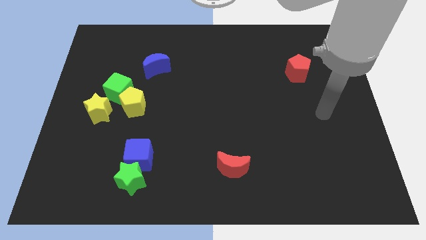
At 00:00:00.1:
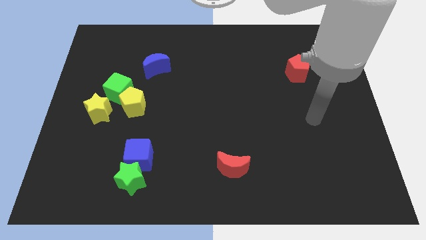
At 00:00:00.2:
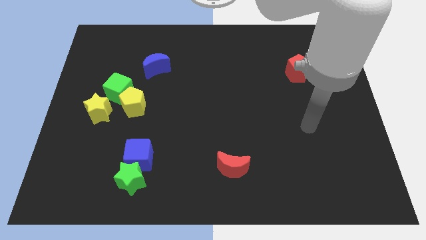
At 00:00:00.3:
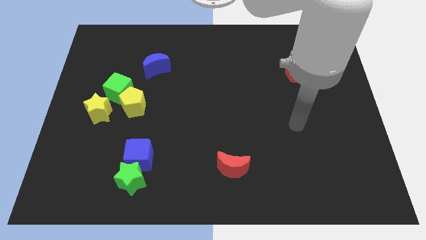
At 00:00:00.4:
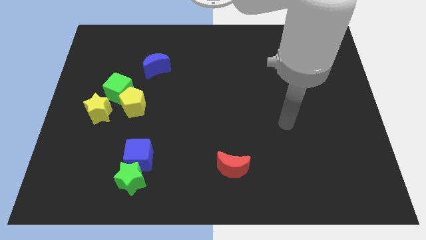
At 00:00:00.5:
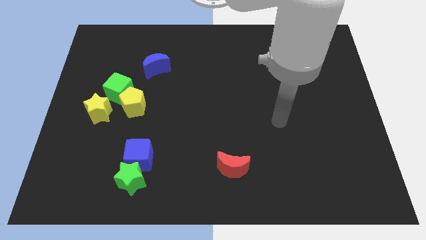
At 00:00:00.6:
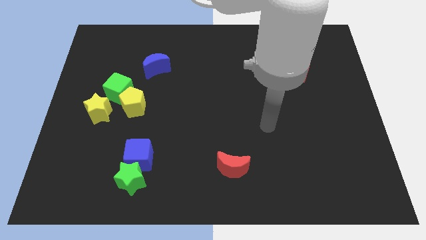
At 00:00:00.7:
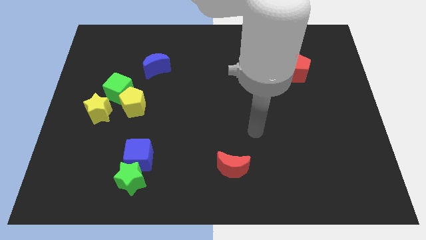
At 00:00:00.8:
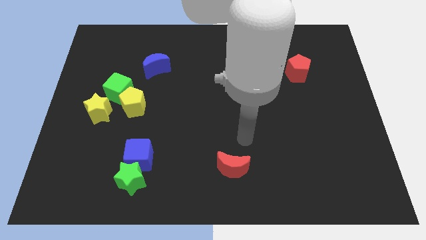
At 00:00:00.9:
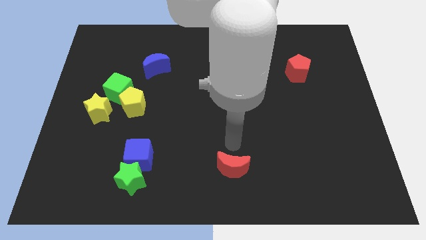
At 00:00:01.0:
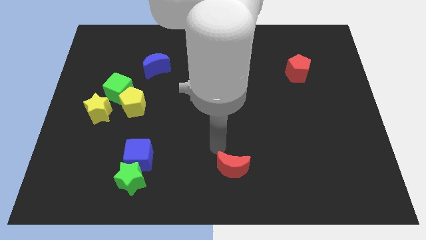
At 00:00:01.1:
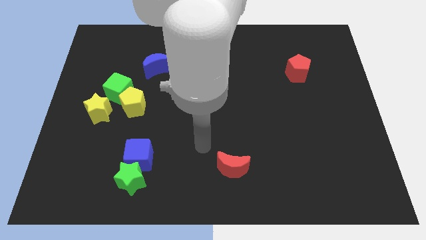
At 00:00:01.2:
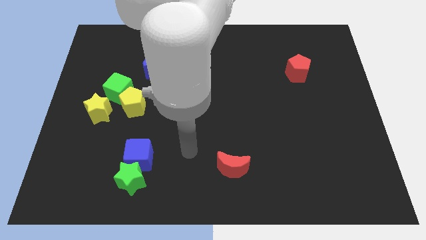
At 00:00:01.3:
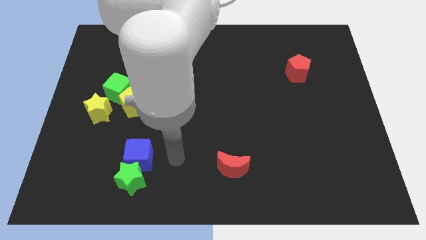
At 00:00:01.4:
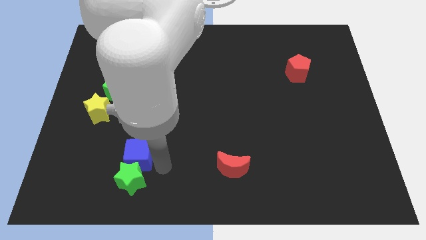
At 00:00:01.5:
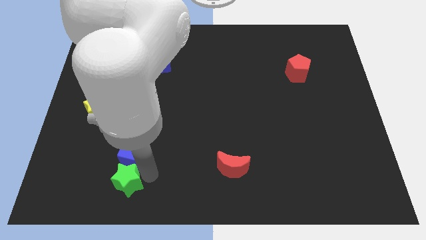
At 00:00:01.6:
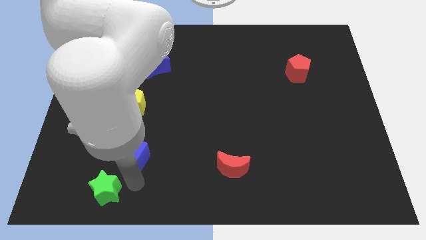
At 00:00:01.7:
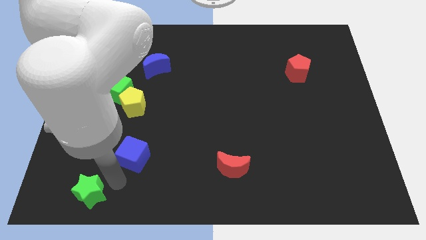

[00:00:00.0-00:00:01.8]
separate the blue cube from the green star

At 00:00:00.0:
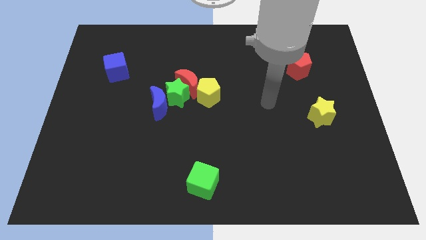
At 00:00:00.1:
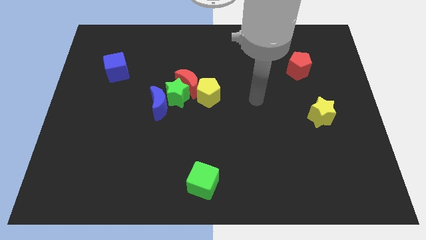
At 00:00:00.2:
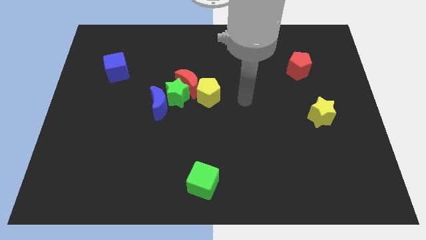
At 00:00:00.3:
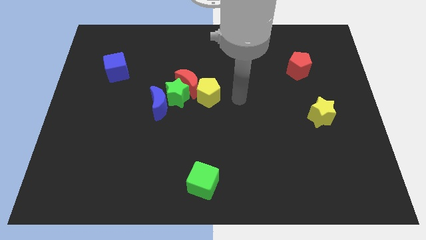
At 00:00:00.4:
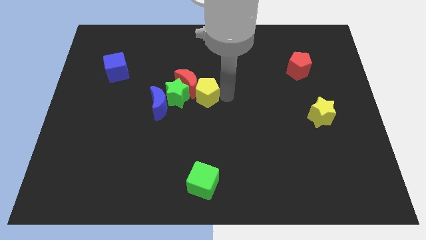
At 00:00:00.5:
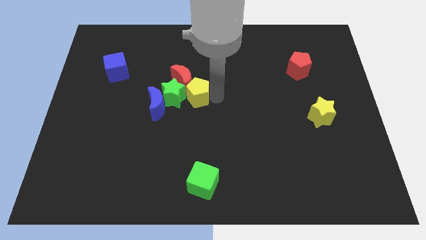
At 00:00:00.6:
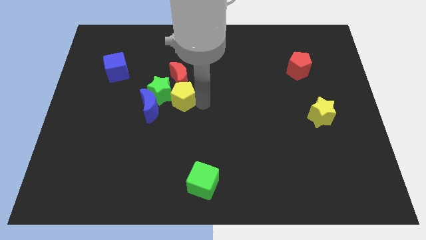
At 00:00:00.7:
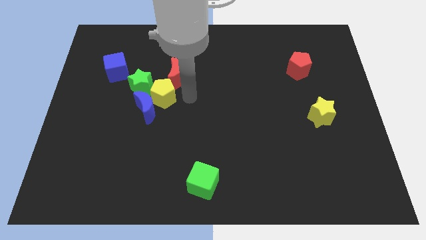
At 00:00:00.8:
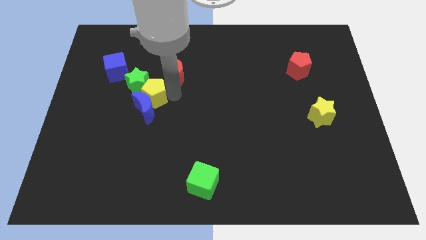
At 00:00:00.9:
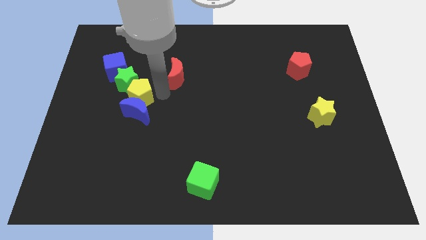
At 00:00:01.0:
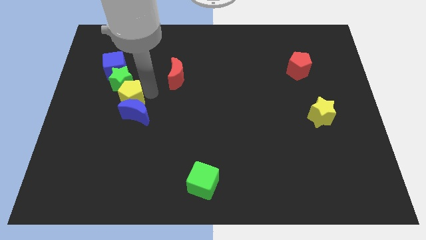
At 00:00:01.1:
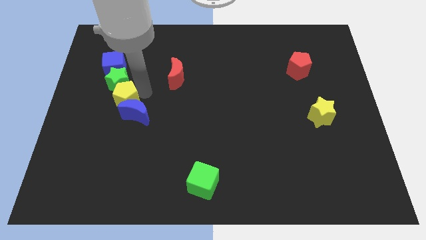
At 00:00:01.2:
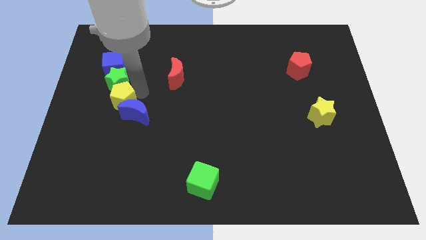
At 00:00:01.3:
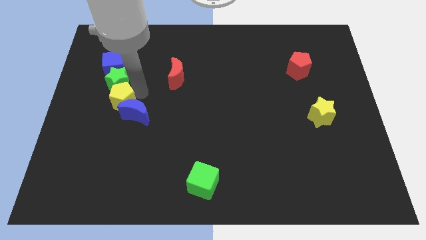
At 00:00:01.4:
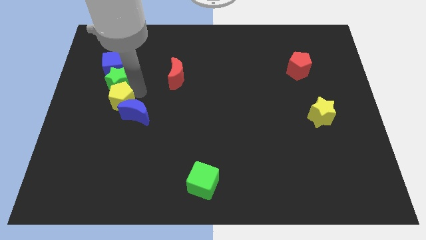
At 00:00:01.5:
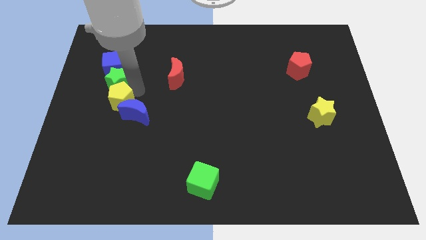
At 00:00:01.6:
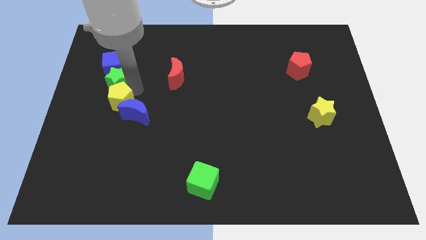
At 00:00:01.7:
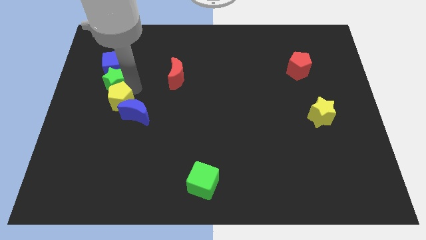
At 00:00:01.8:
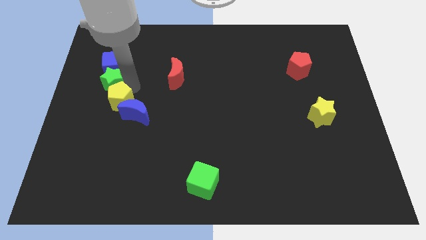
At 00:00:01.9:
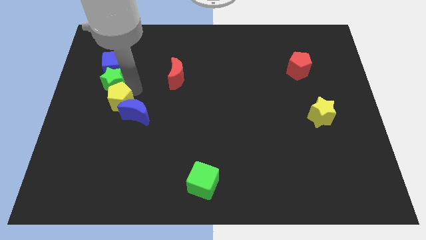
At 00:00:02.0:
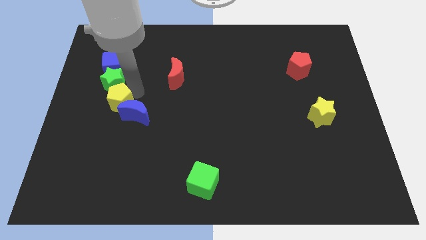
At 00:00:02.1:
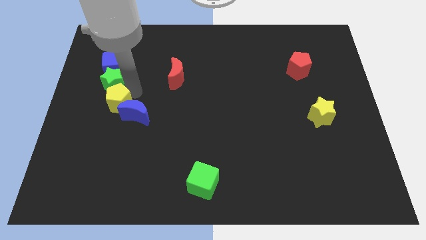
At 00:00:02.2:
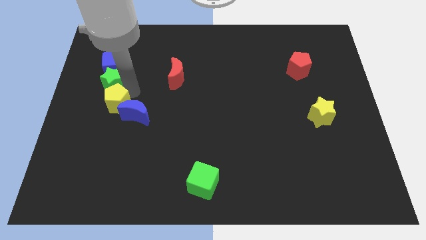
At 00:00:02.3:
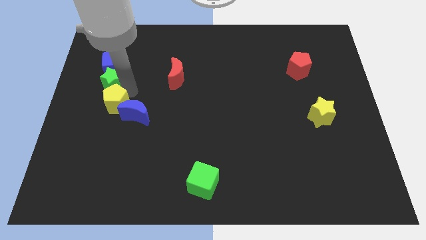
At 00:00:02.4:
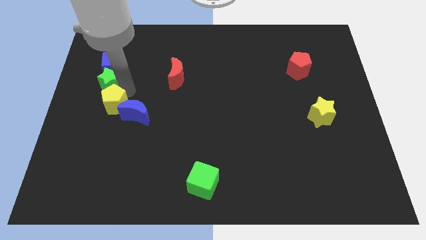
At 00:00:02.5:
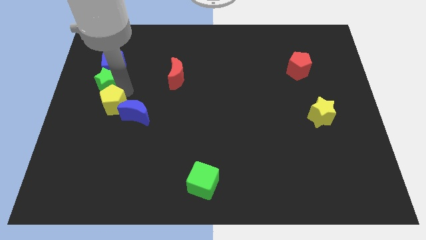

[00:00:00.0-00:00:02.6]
move the green star away from the group

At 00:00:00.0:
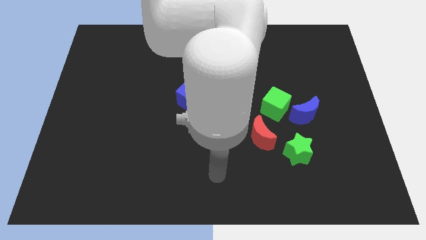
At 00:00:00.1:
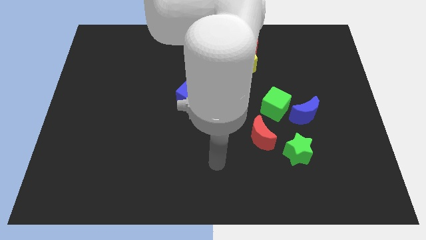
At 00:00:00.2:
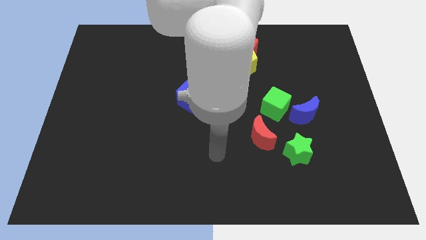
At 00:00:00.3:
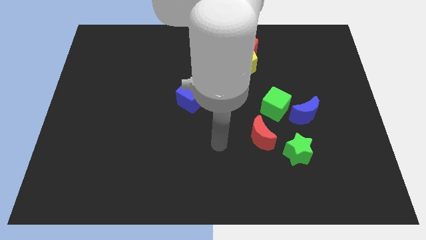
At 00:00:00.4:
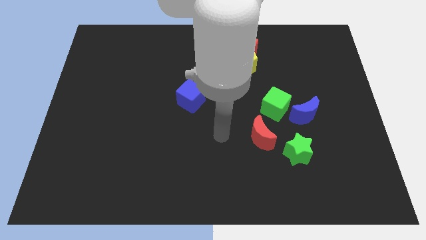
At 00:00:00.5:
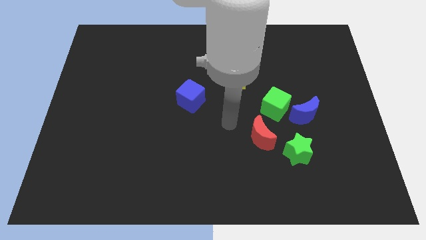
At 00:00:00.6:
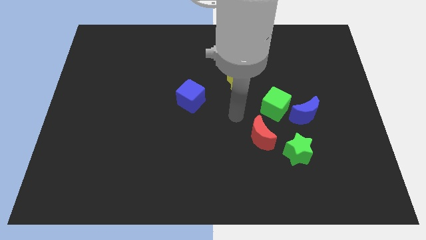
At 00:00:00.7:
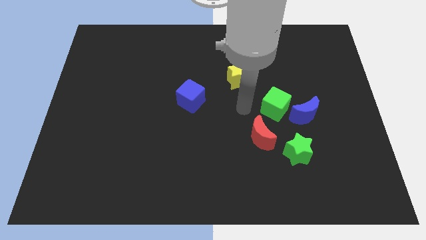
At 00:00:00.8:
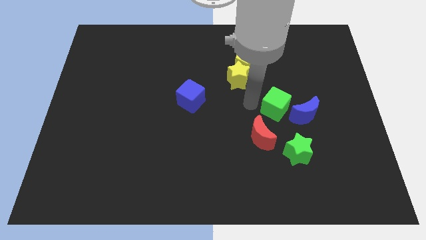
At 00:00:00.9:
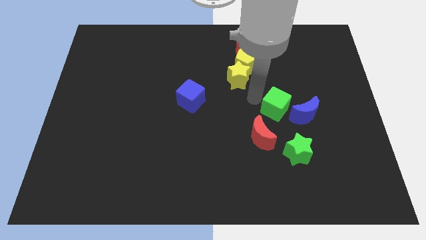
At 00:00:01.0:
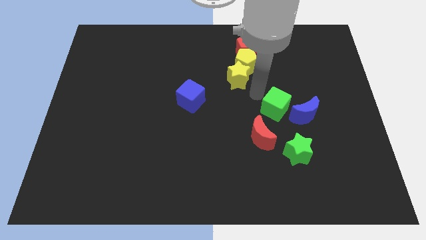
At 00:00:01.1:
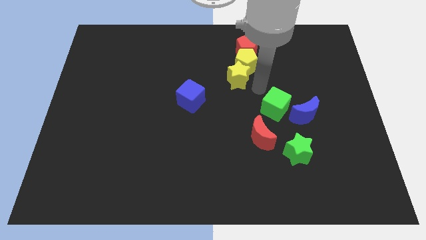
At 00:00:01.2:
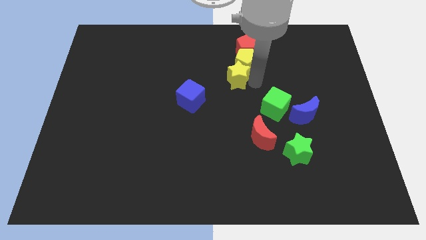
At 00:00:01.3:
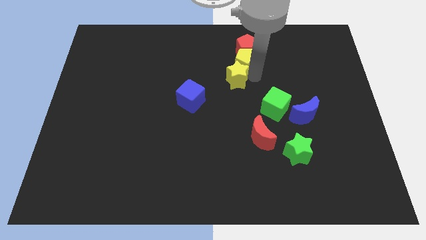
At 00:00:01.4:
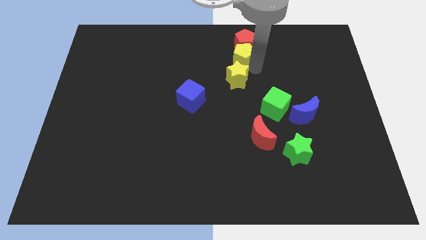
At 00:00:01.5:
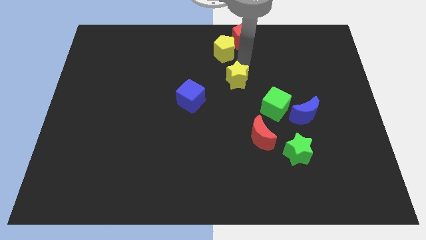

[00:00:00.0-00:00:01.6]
pull the yellow star apart from the yellow pentagon

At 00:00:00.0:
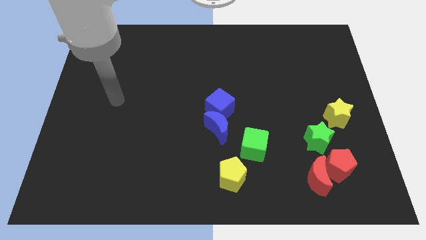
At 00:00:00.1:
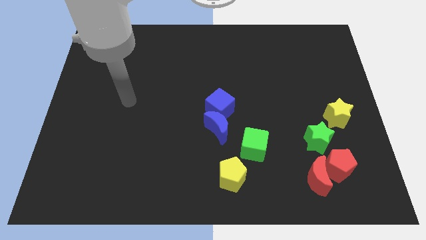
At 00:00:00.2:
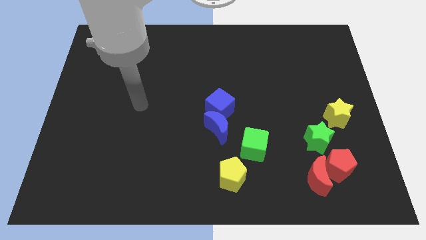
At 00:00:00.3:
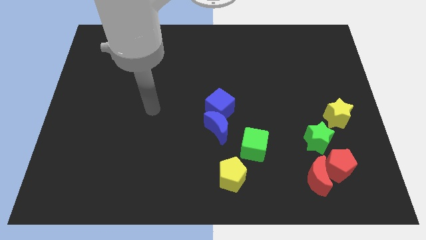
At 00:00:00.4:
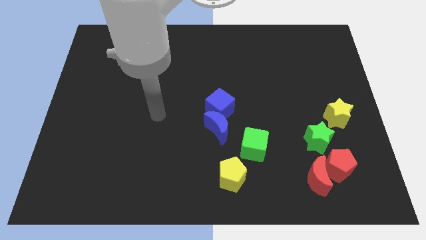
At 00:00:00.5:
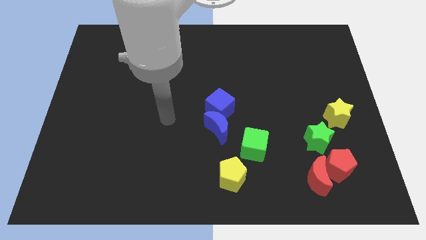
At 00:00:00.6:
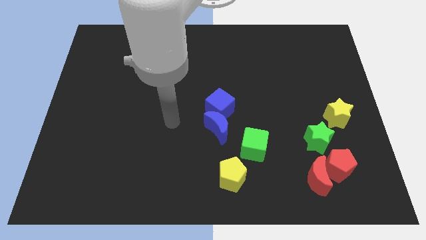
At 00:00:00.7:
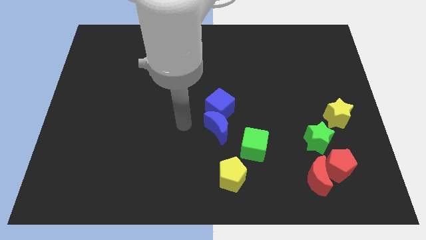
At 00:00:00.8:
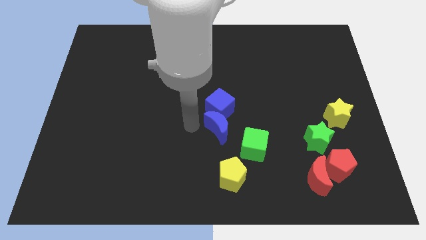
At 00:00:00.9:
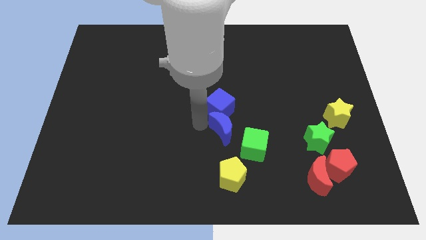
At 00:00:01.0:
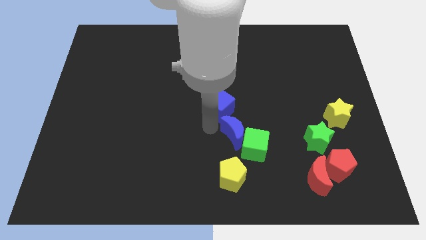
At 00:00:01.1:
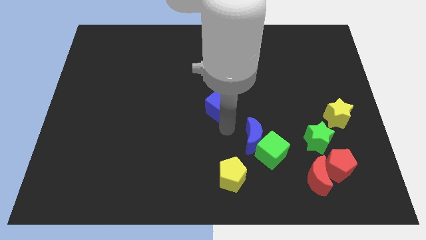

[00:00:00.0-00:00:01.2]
pull the blue cube apart from the blue moon

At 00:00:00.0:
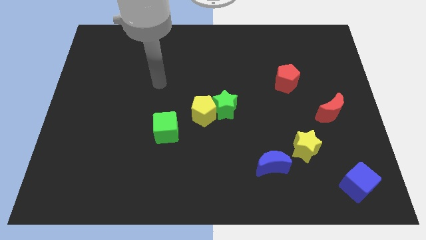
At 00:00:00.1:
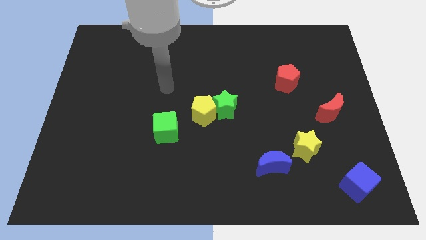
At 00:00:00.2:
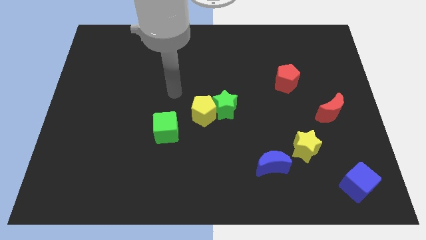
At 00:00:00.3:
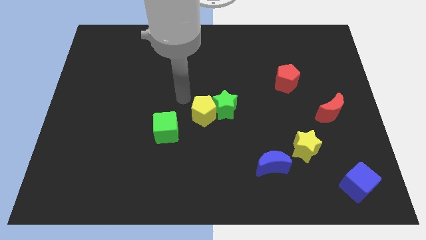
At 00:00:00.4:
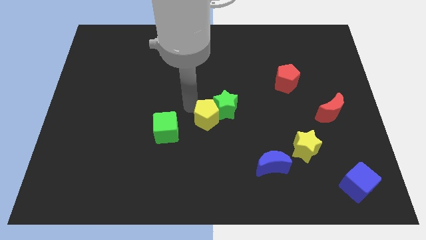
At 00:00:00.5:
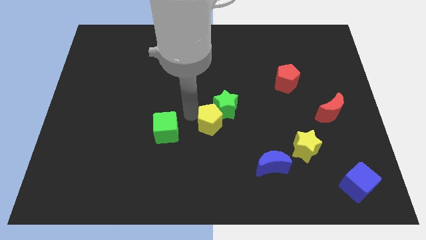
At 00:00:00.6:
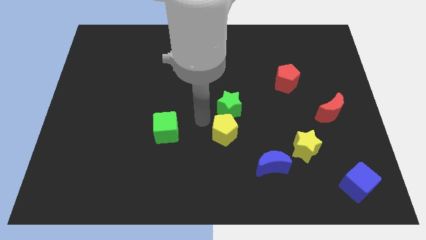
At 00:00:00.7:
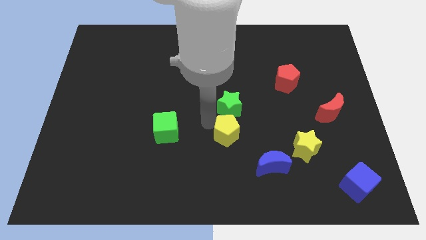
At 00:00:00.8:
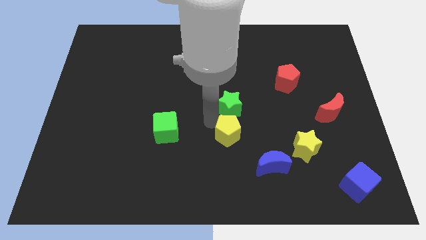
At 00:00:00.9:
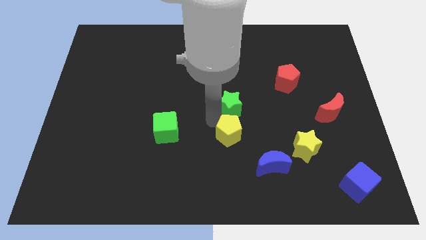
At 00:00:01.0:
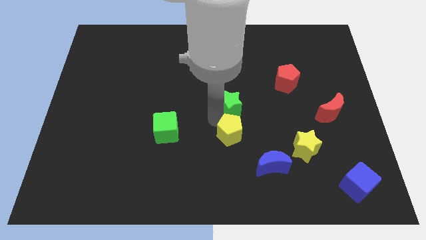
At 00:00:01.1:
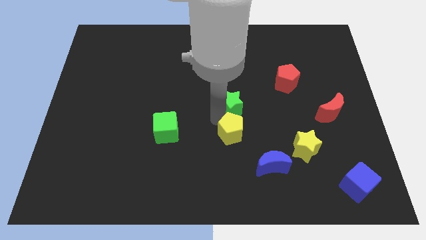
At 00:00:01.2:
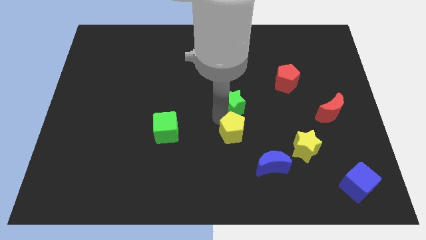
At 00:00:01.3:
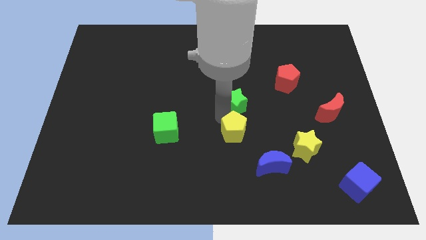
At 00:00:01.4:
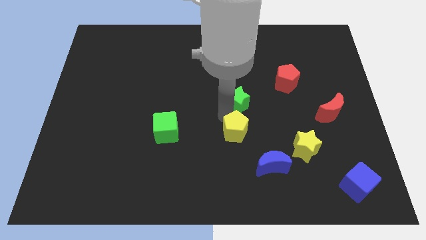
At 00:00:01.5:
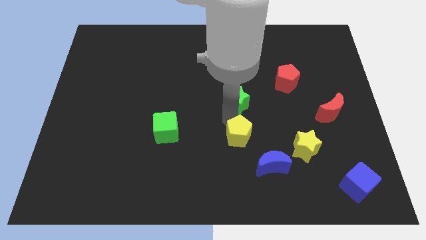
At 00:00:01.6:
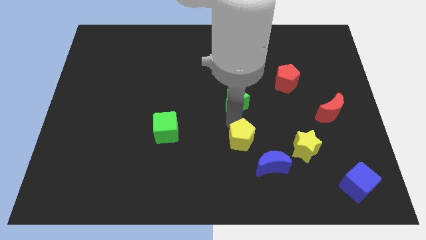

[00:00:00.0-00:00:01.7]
move the green star away from the yellow pentagon

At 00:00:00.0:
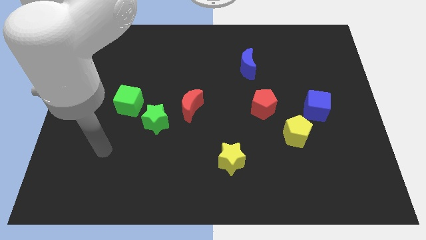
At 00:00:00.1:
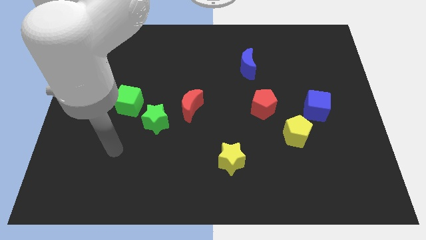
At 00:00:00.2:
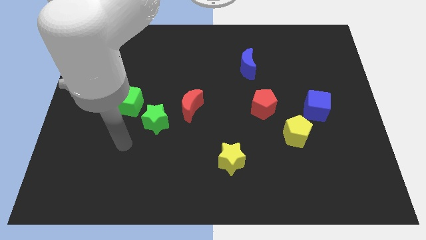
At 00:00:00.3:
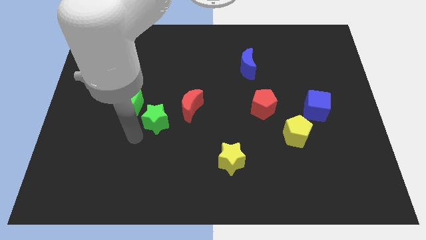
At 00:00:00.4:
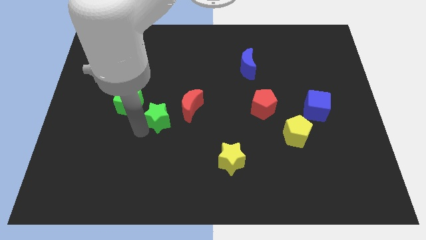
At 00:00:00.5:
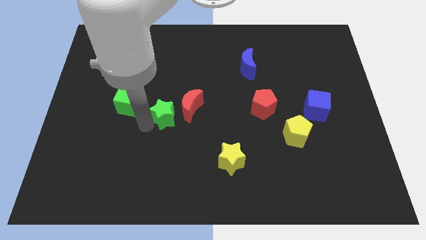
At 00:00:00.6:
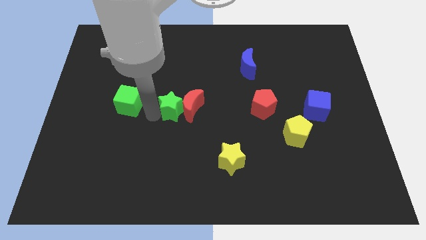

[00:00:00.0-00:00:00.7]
move the green cube away from the green star
